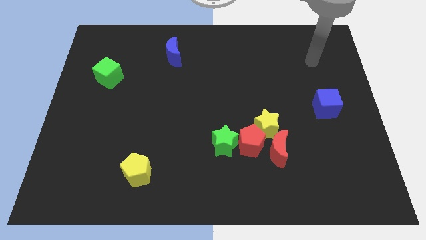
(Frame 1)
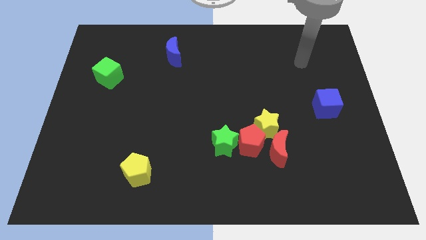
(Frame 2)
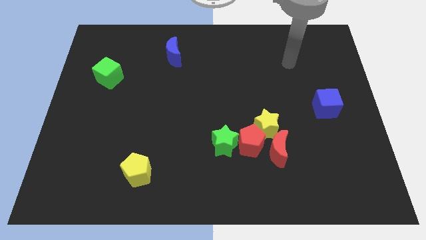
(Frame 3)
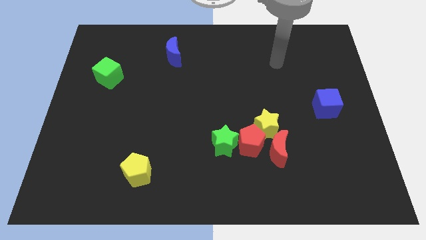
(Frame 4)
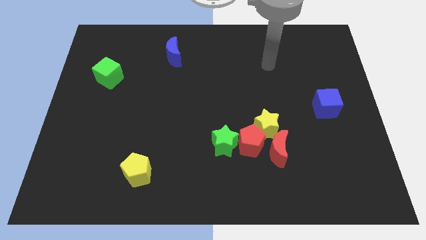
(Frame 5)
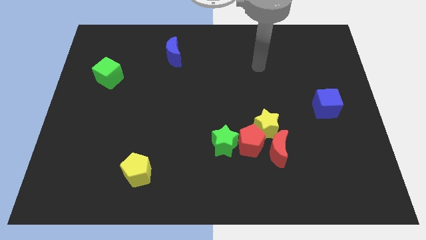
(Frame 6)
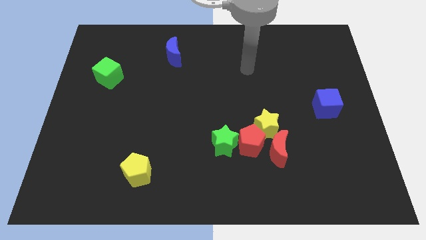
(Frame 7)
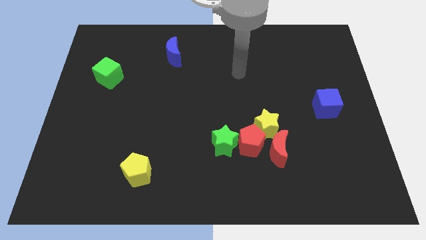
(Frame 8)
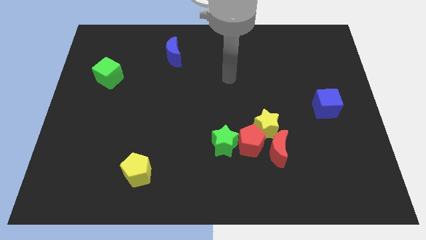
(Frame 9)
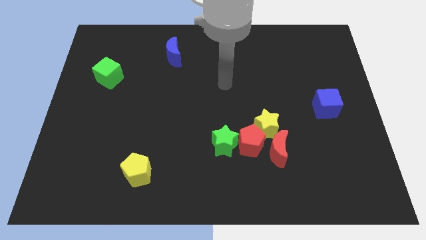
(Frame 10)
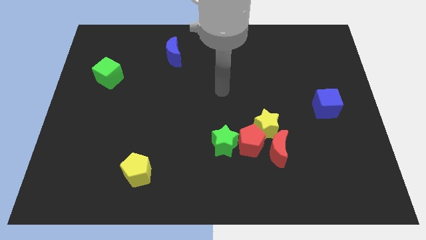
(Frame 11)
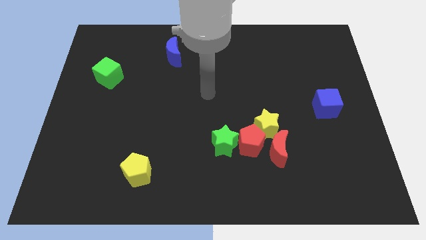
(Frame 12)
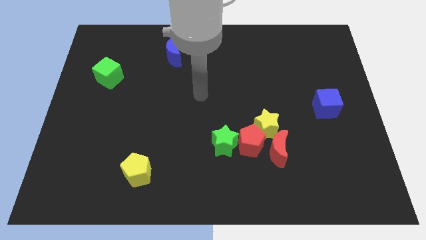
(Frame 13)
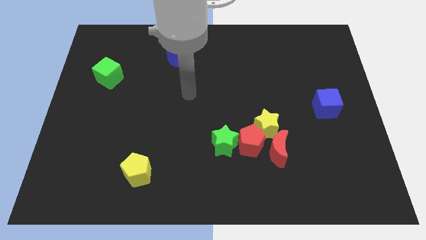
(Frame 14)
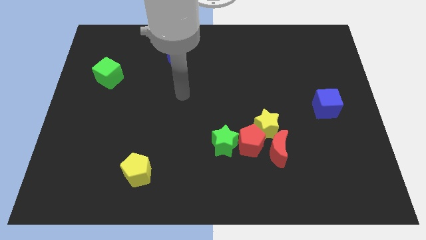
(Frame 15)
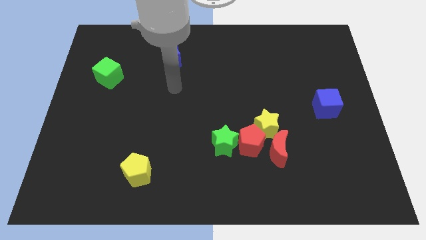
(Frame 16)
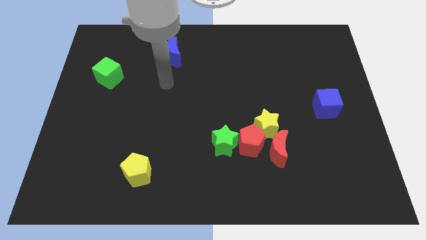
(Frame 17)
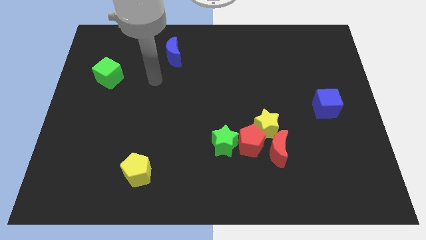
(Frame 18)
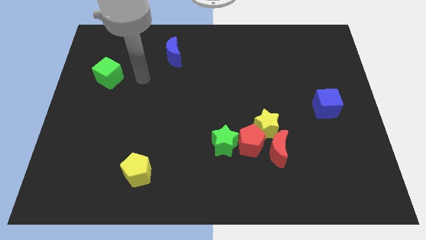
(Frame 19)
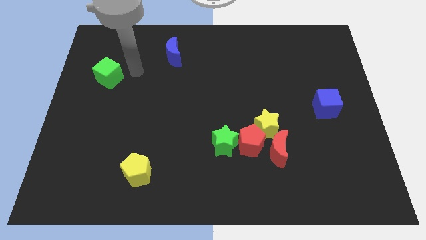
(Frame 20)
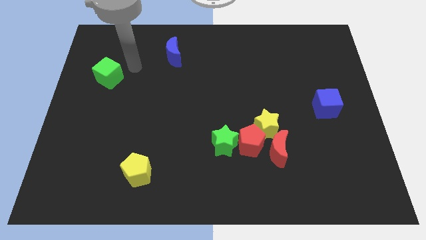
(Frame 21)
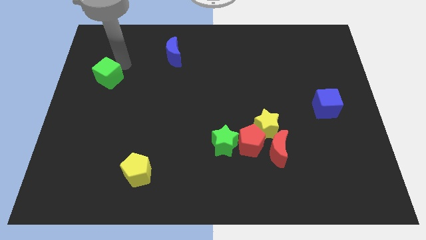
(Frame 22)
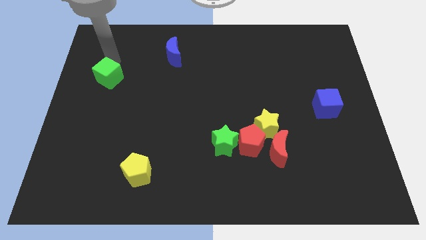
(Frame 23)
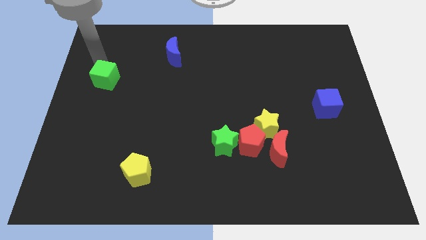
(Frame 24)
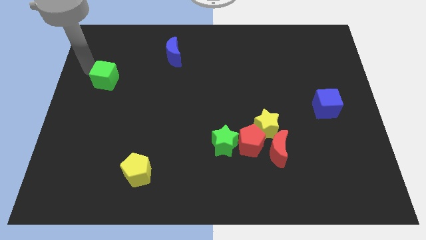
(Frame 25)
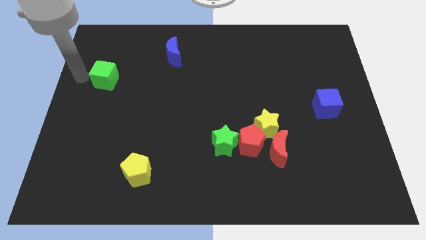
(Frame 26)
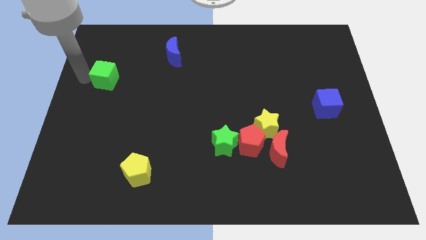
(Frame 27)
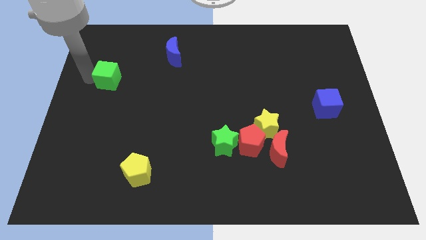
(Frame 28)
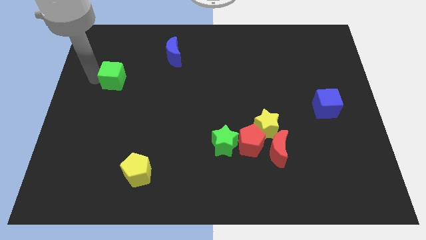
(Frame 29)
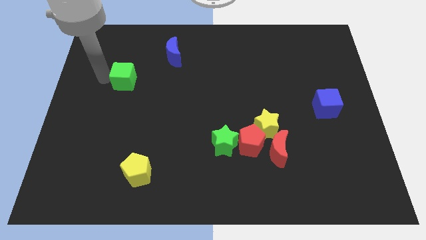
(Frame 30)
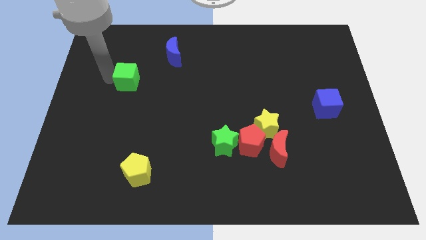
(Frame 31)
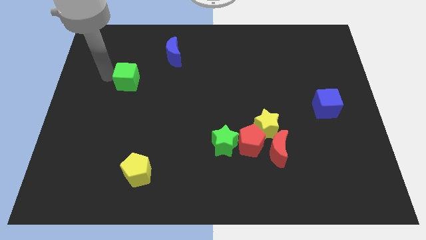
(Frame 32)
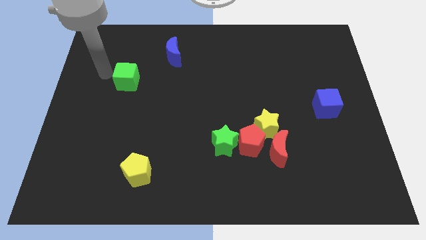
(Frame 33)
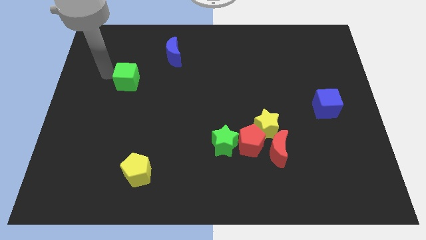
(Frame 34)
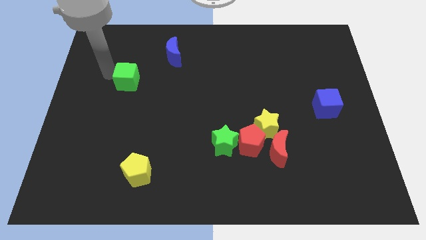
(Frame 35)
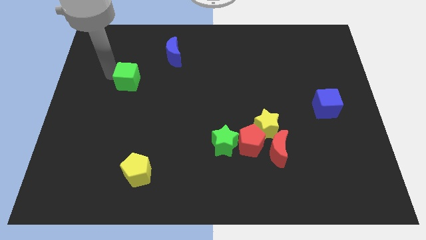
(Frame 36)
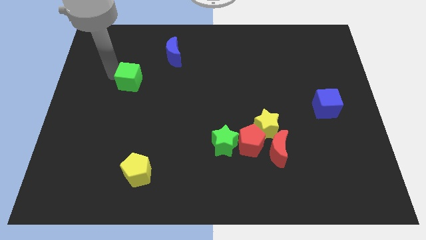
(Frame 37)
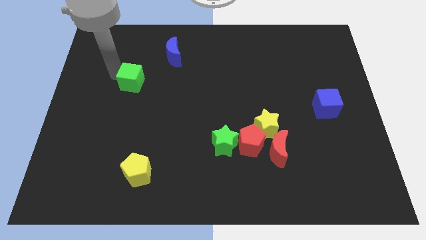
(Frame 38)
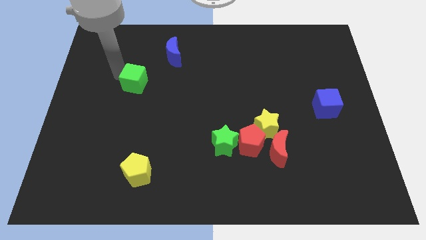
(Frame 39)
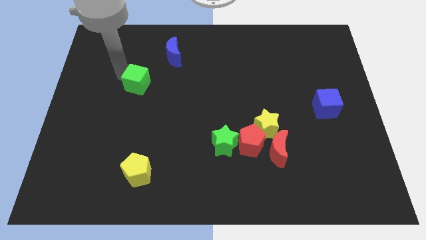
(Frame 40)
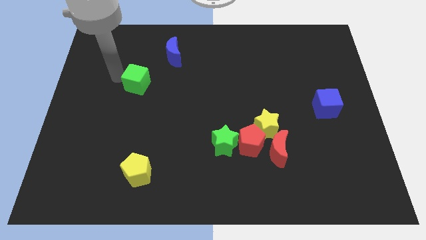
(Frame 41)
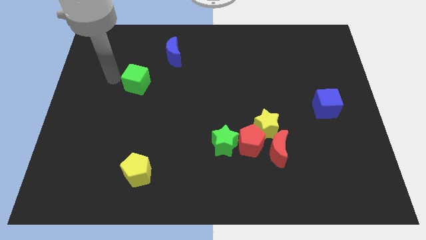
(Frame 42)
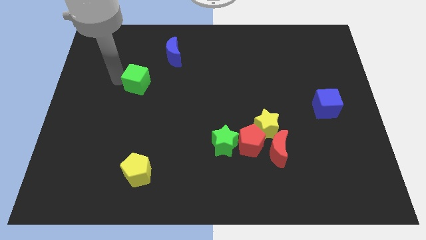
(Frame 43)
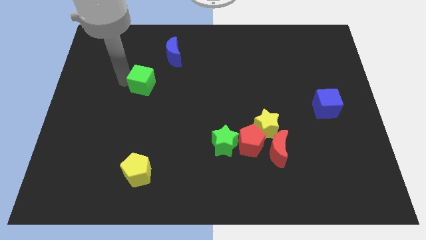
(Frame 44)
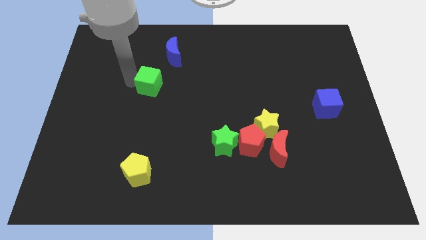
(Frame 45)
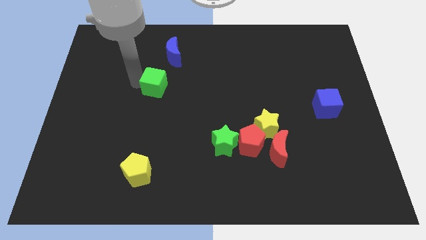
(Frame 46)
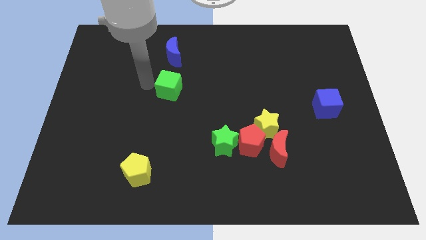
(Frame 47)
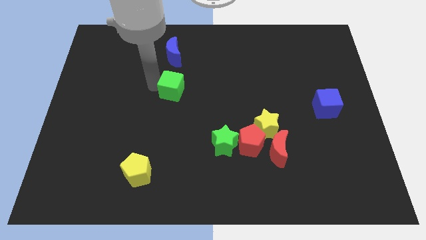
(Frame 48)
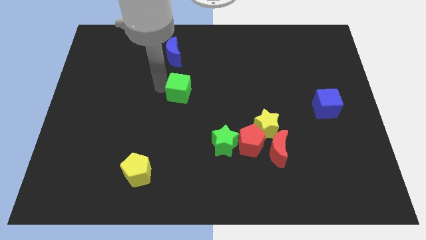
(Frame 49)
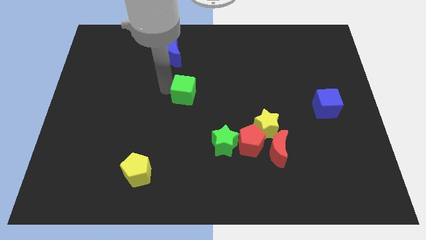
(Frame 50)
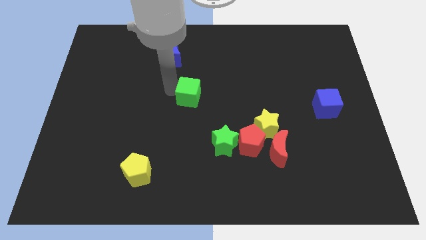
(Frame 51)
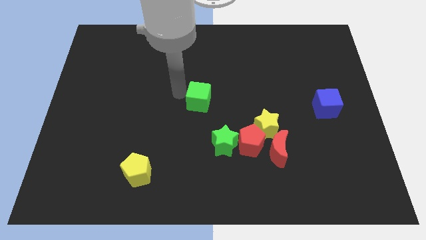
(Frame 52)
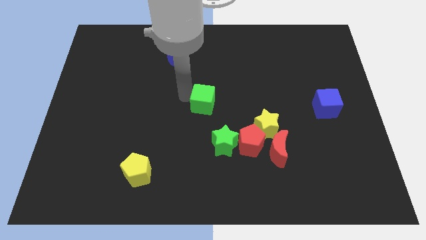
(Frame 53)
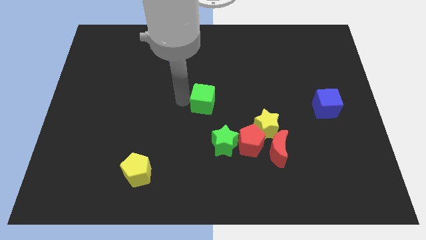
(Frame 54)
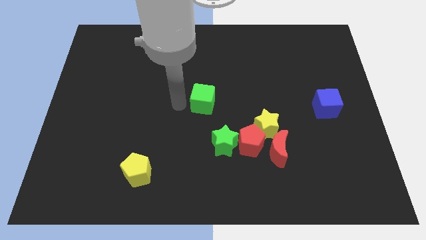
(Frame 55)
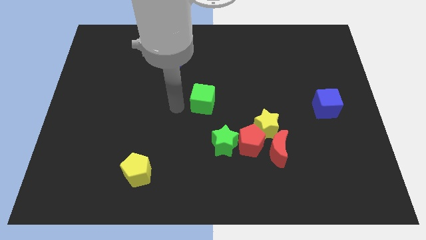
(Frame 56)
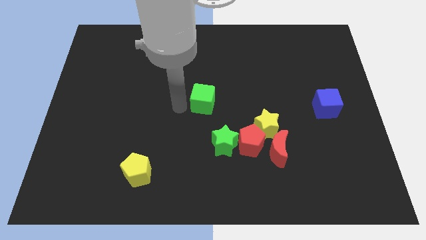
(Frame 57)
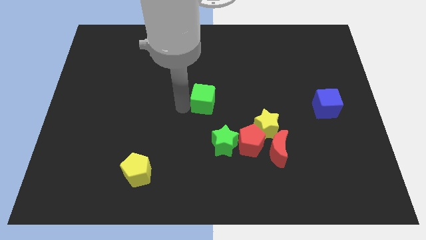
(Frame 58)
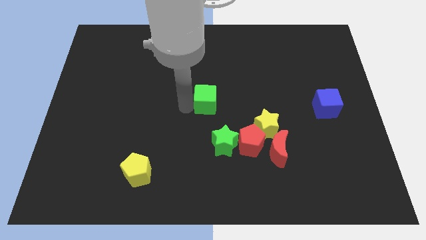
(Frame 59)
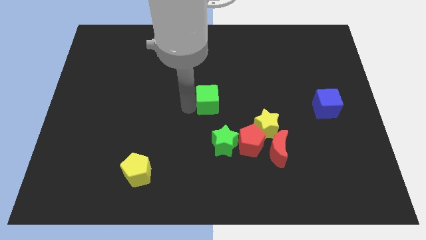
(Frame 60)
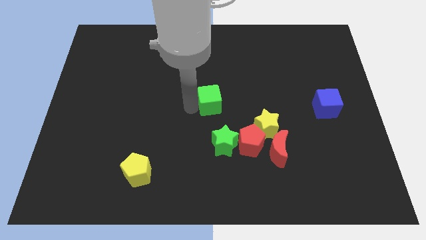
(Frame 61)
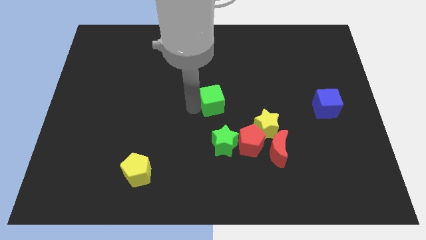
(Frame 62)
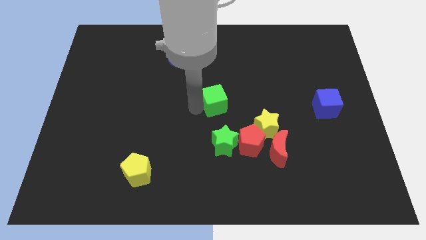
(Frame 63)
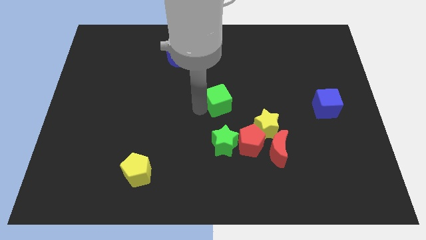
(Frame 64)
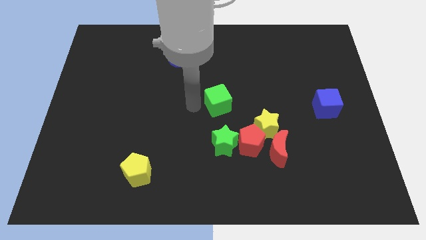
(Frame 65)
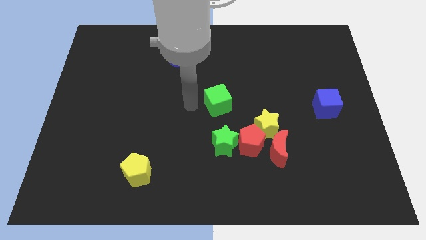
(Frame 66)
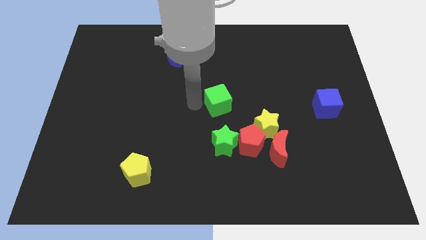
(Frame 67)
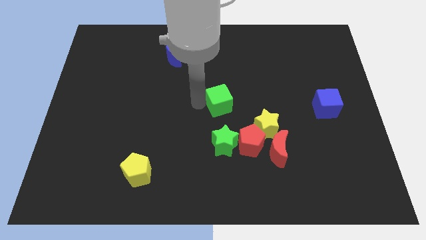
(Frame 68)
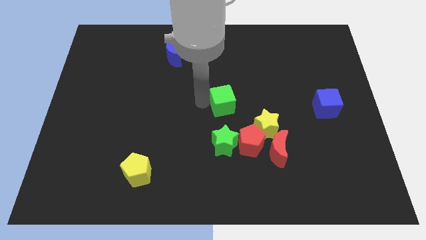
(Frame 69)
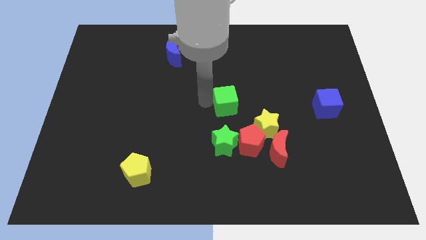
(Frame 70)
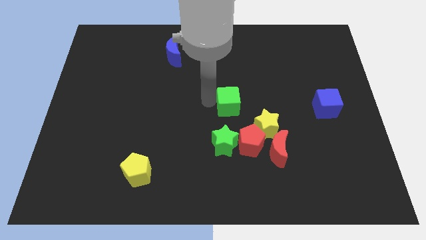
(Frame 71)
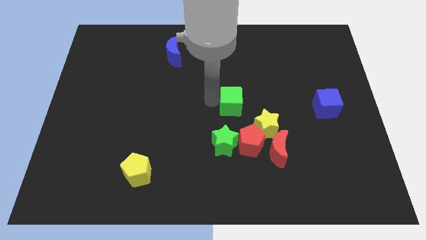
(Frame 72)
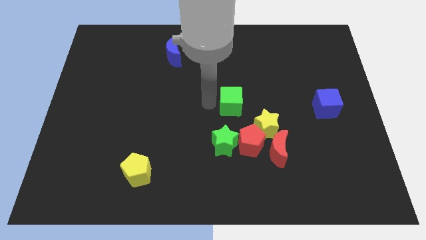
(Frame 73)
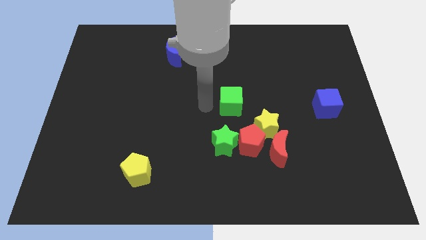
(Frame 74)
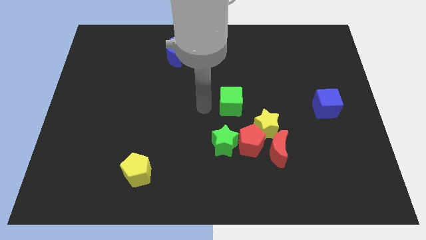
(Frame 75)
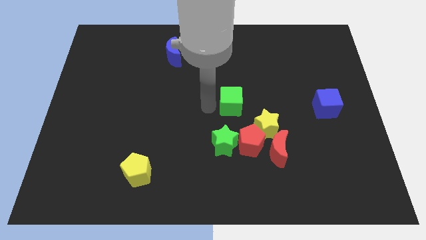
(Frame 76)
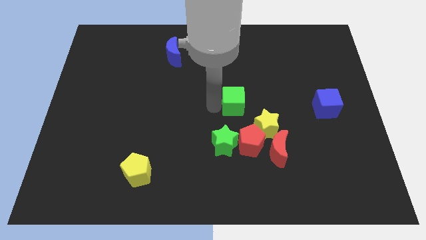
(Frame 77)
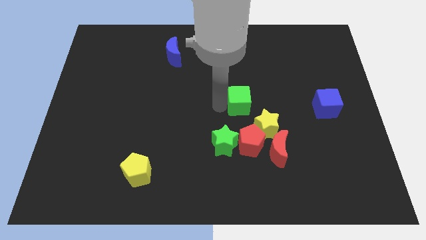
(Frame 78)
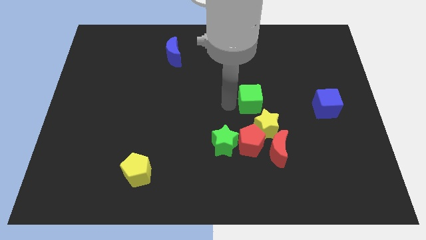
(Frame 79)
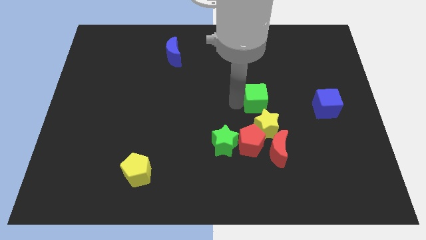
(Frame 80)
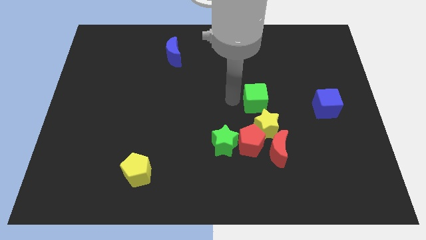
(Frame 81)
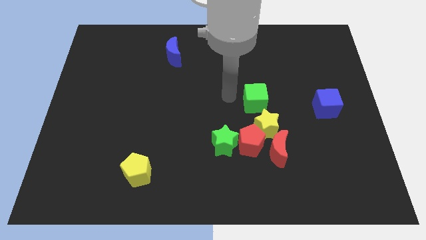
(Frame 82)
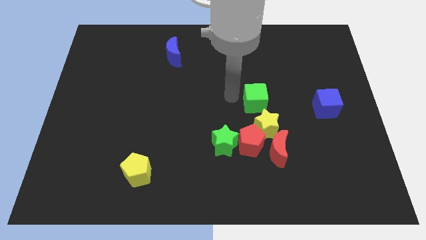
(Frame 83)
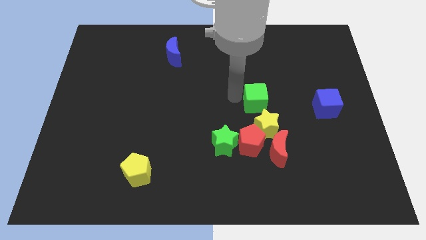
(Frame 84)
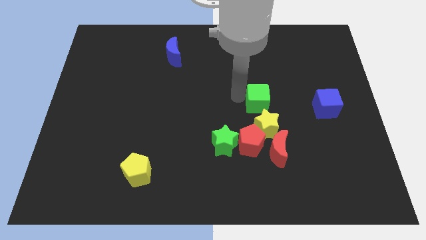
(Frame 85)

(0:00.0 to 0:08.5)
move the green cube just left of the blue cube
